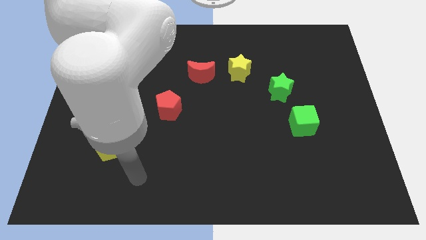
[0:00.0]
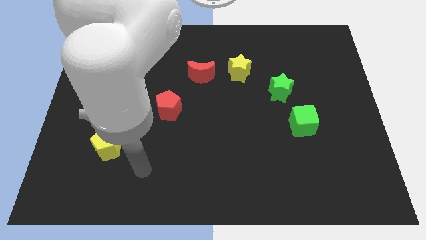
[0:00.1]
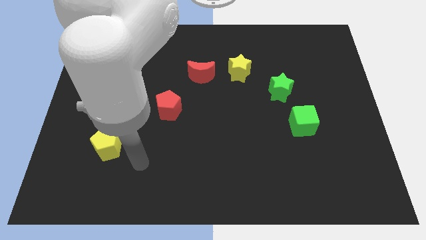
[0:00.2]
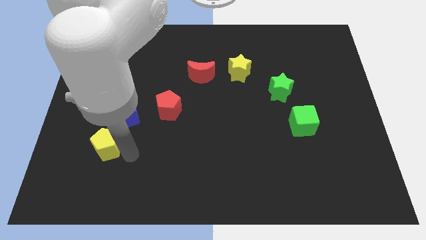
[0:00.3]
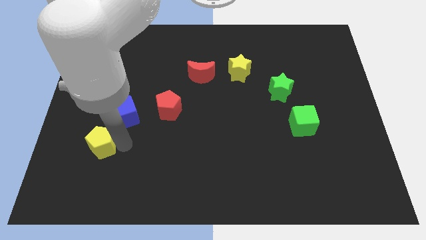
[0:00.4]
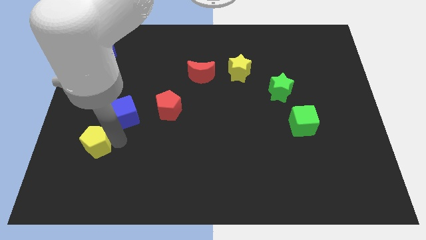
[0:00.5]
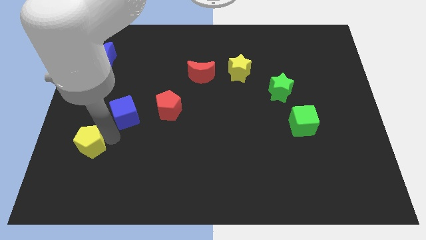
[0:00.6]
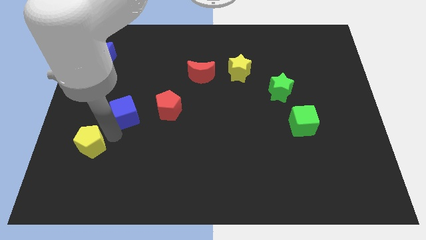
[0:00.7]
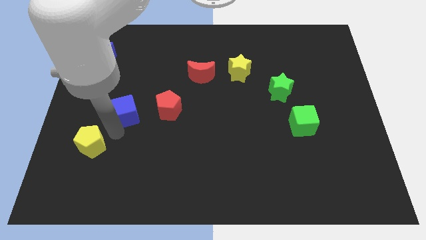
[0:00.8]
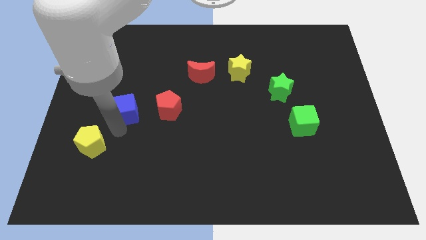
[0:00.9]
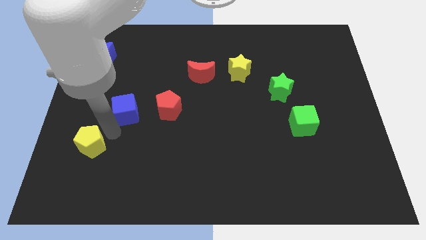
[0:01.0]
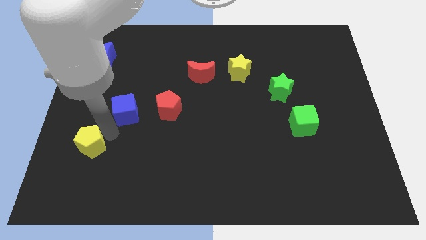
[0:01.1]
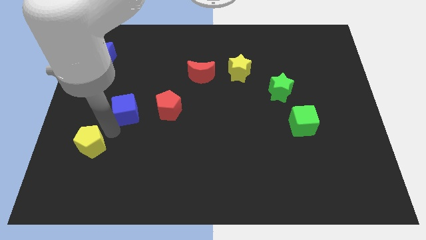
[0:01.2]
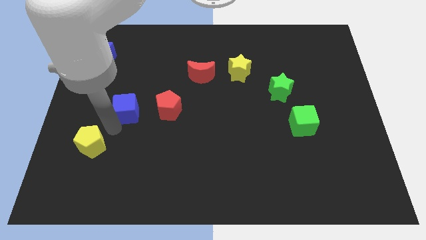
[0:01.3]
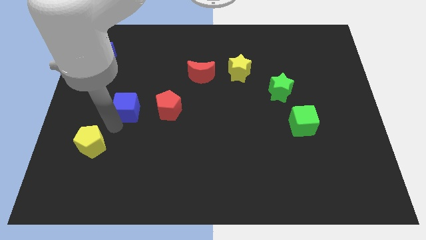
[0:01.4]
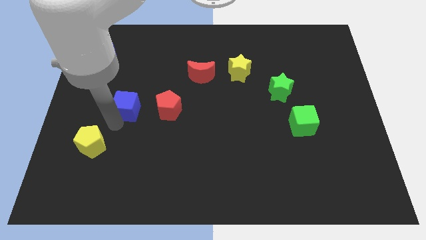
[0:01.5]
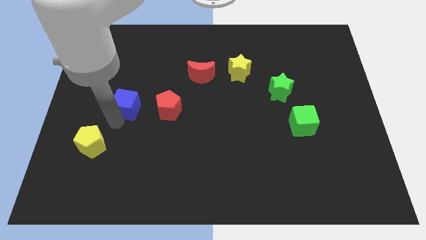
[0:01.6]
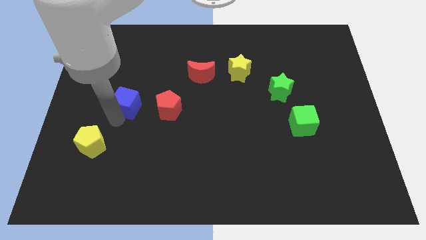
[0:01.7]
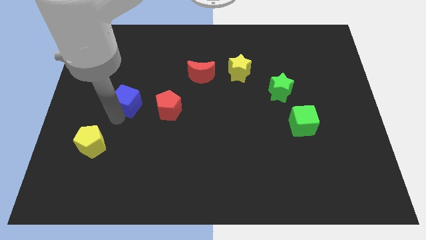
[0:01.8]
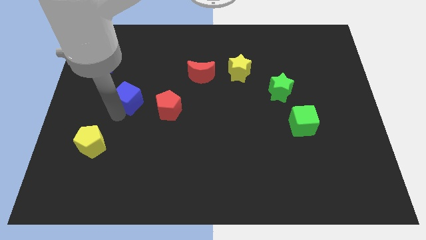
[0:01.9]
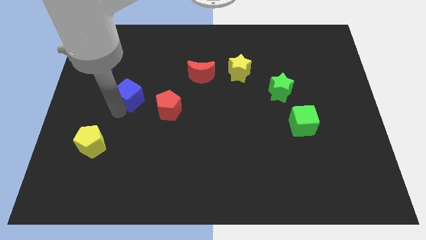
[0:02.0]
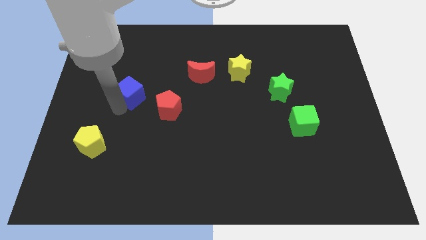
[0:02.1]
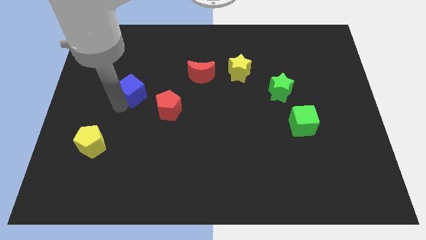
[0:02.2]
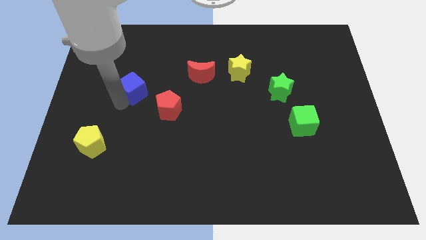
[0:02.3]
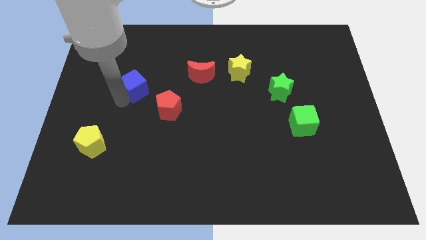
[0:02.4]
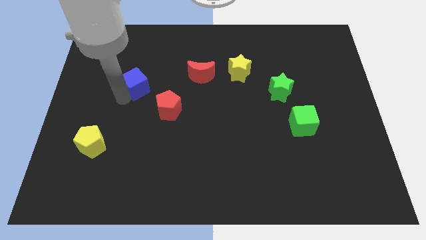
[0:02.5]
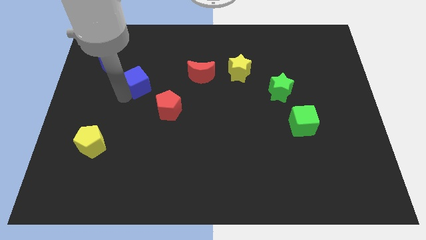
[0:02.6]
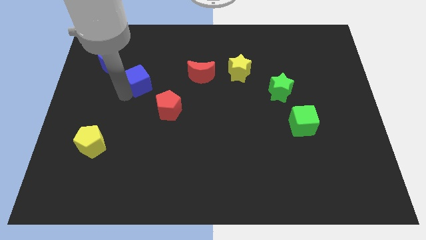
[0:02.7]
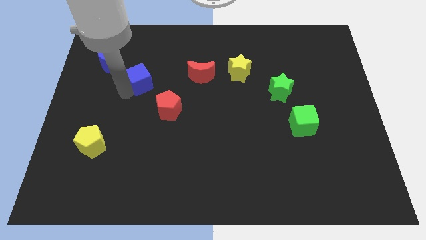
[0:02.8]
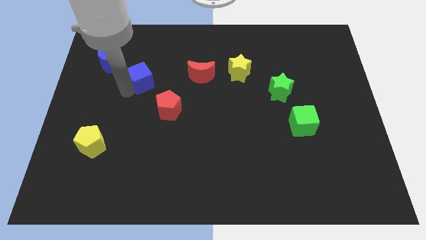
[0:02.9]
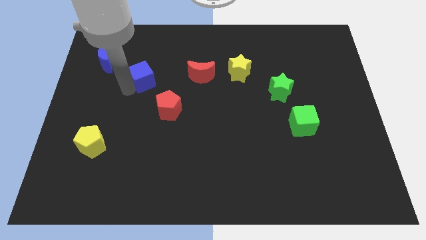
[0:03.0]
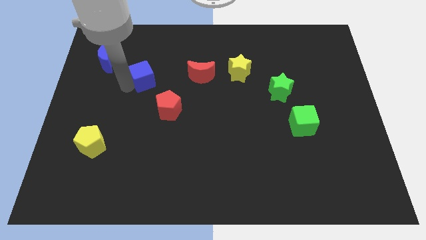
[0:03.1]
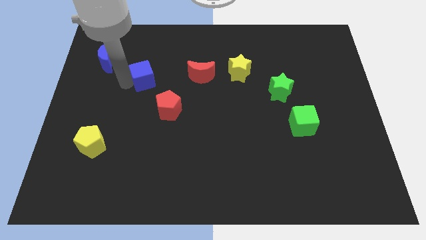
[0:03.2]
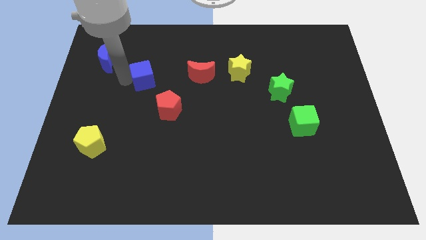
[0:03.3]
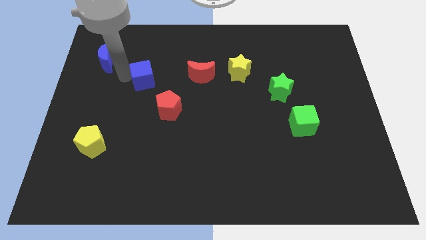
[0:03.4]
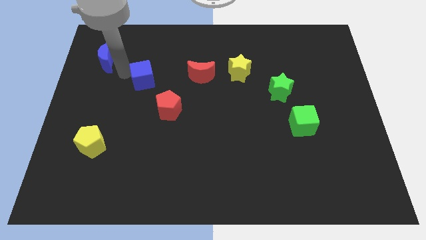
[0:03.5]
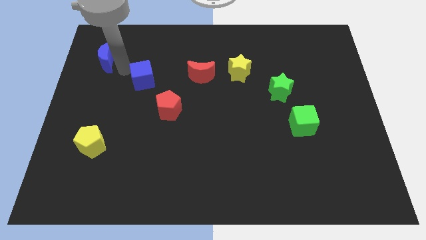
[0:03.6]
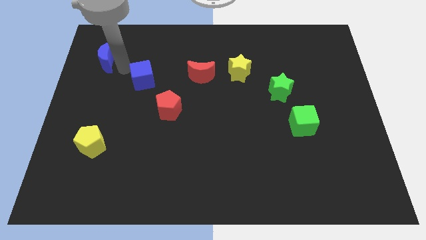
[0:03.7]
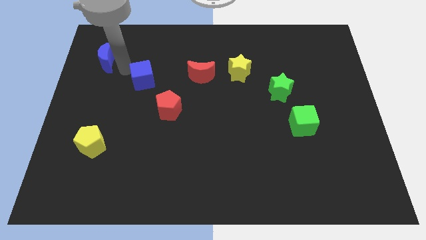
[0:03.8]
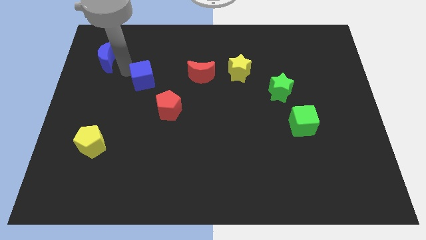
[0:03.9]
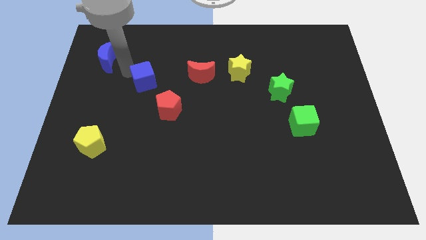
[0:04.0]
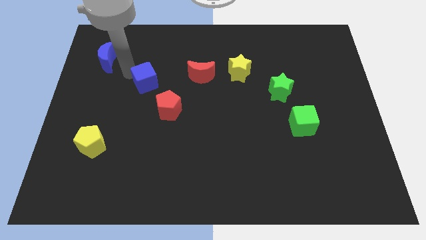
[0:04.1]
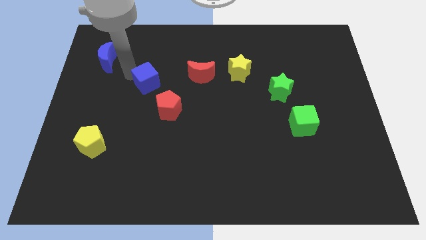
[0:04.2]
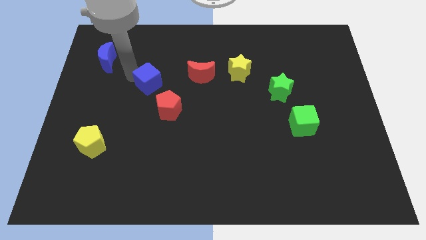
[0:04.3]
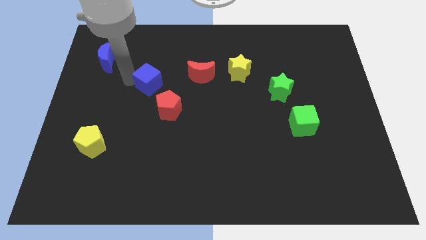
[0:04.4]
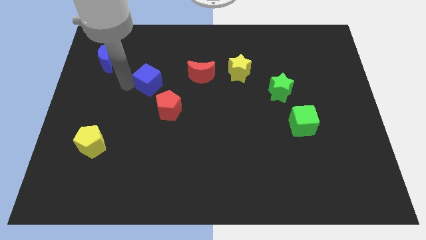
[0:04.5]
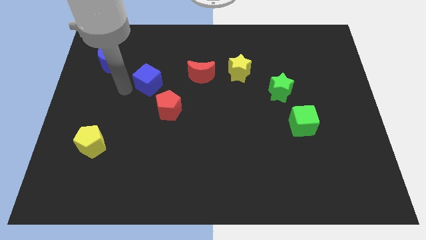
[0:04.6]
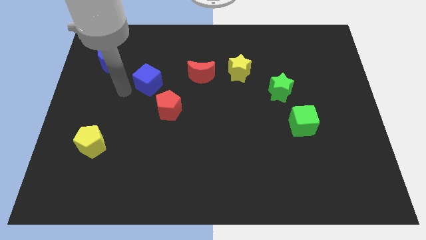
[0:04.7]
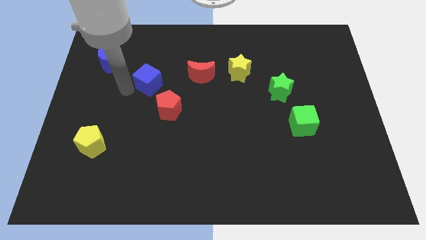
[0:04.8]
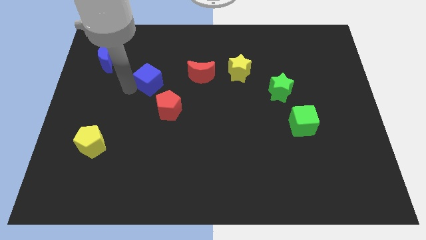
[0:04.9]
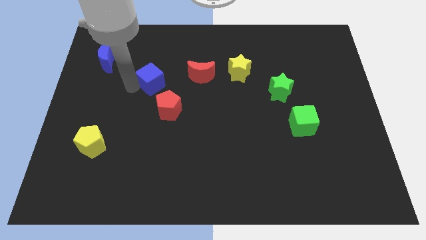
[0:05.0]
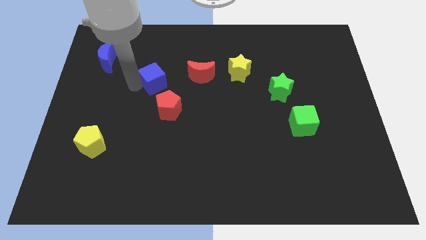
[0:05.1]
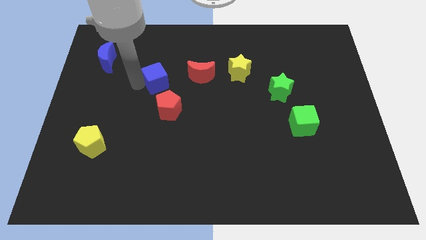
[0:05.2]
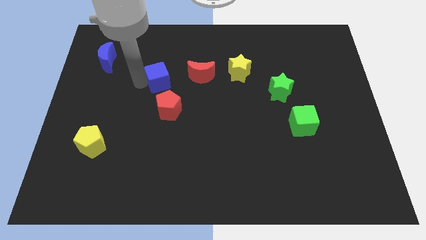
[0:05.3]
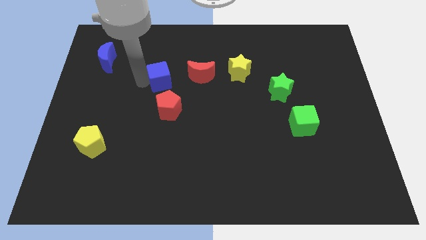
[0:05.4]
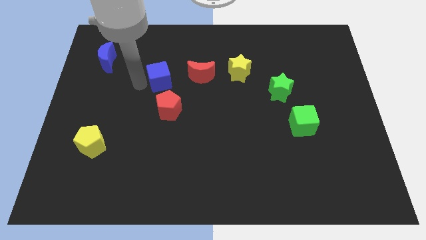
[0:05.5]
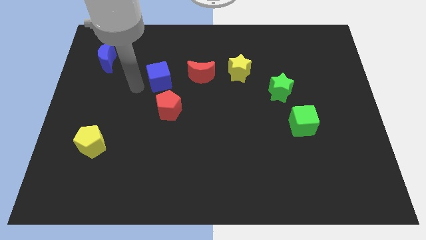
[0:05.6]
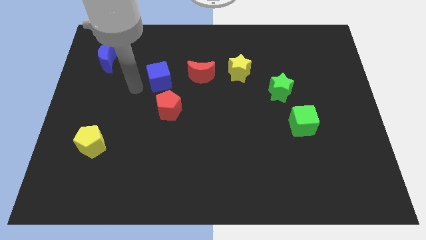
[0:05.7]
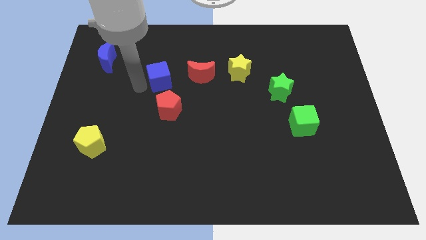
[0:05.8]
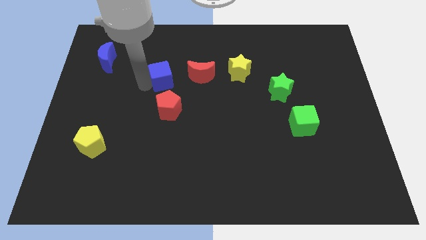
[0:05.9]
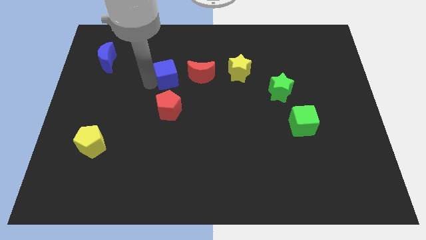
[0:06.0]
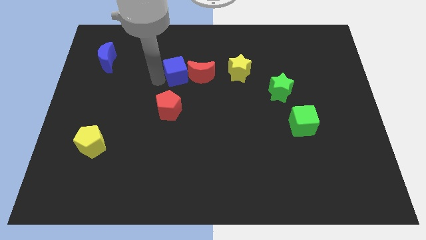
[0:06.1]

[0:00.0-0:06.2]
move the blue cube close to the red moon

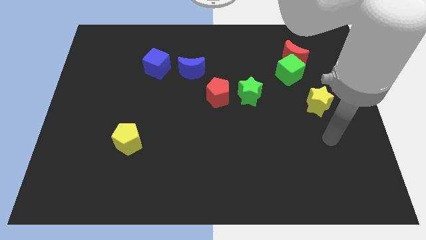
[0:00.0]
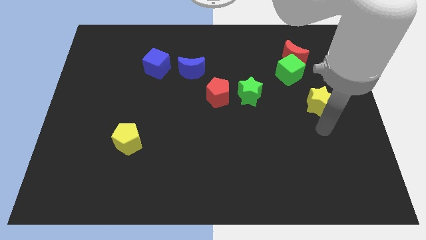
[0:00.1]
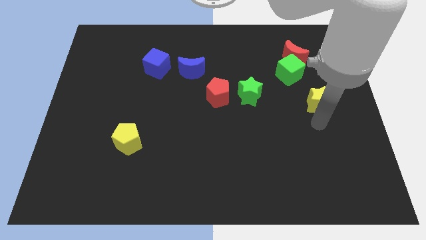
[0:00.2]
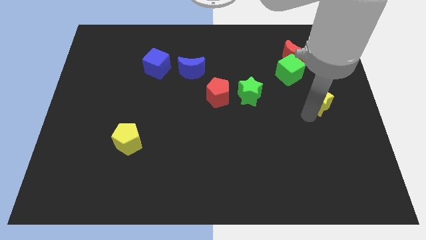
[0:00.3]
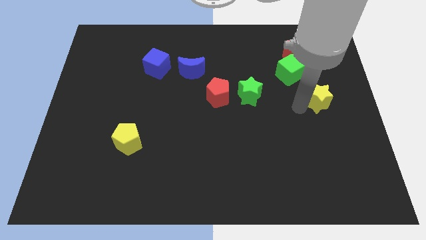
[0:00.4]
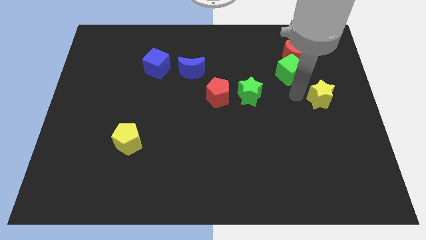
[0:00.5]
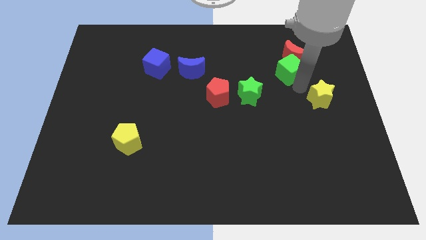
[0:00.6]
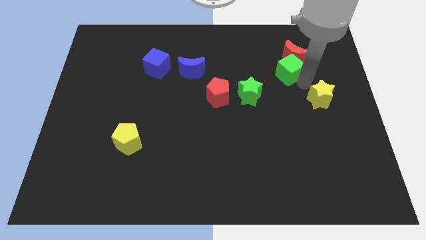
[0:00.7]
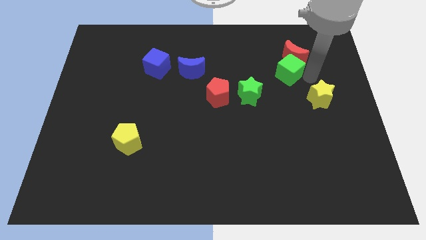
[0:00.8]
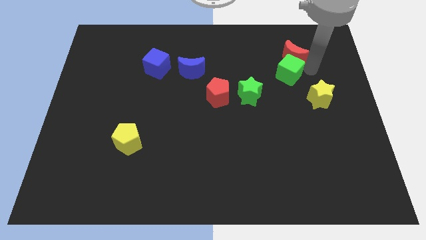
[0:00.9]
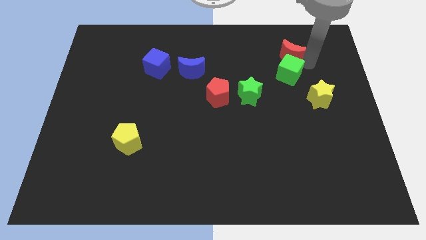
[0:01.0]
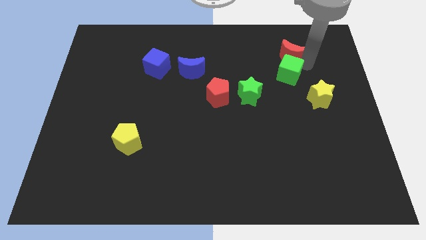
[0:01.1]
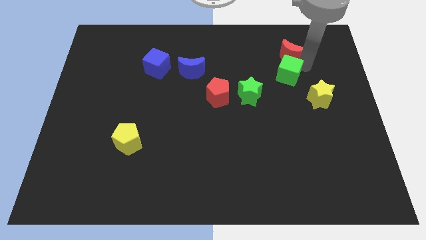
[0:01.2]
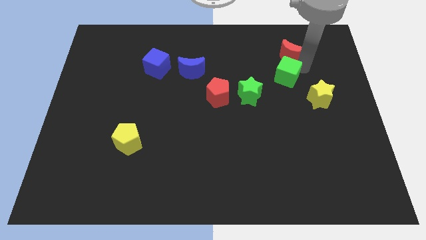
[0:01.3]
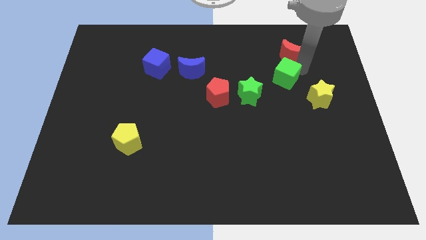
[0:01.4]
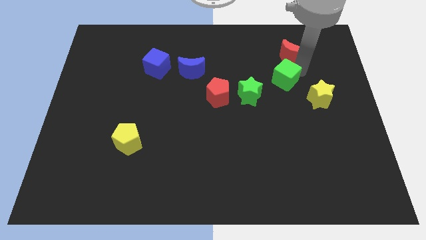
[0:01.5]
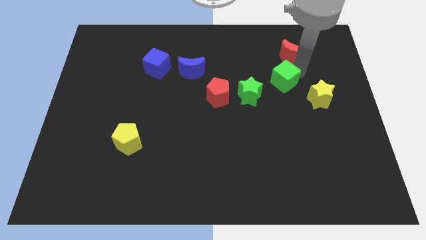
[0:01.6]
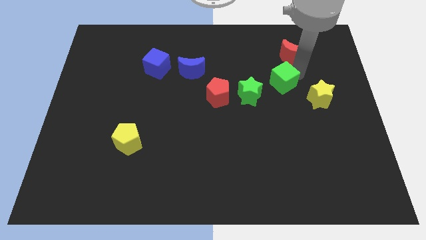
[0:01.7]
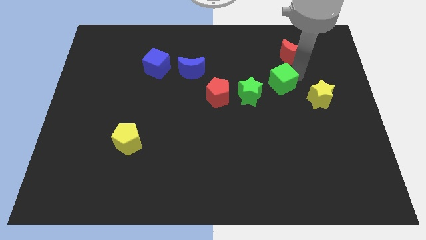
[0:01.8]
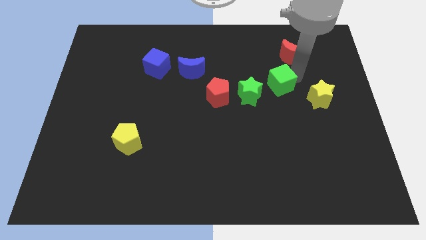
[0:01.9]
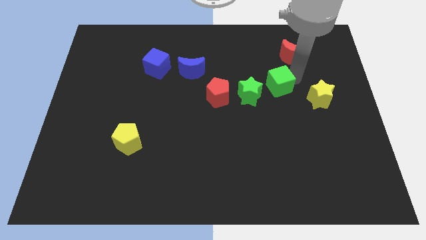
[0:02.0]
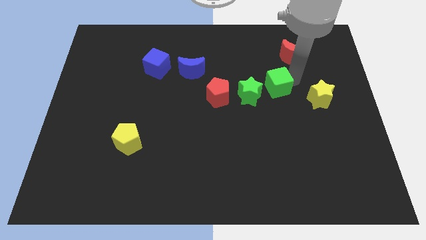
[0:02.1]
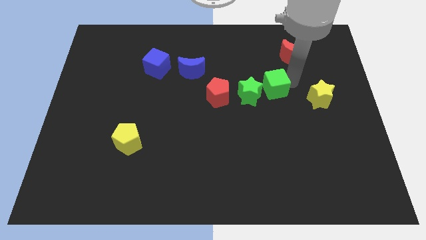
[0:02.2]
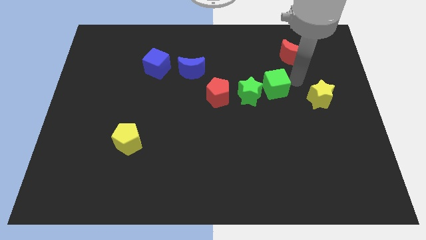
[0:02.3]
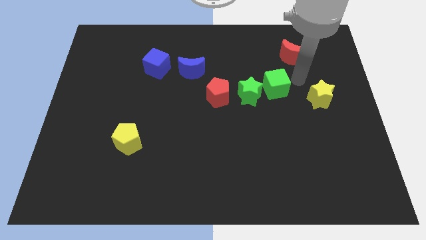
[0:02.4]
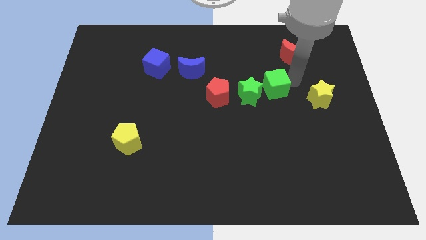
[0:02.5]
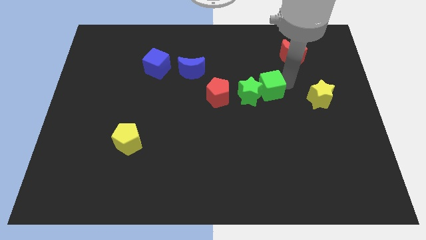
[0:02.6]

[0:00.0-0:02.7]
push the green cube next to the green star
